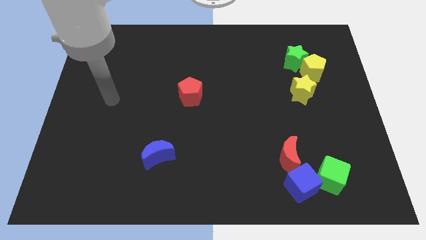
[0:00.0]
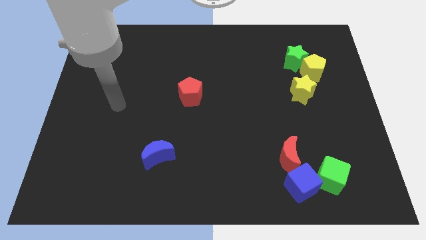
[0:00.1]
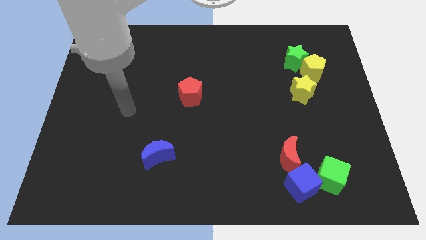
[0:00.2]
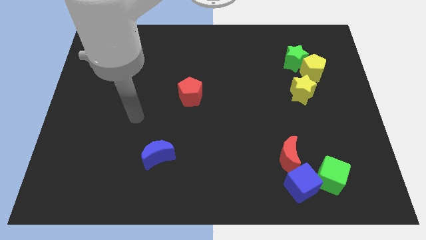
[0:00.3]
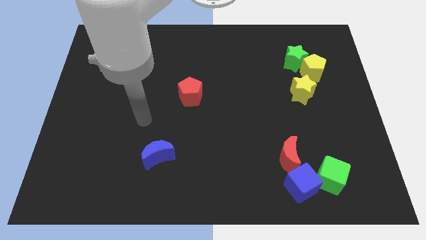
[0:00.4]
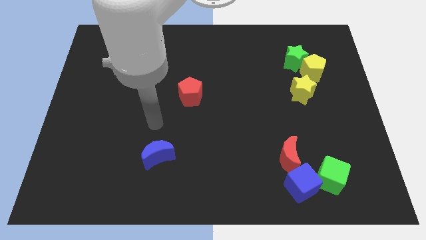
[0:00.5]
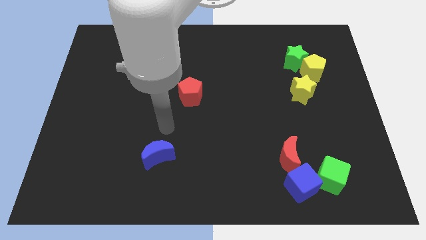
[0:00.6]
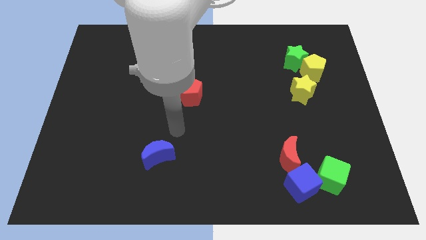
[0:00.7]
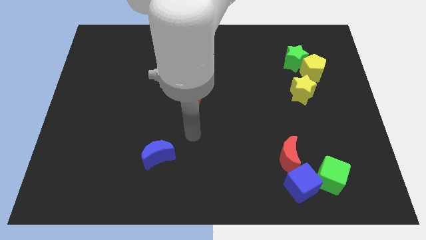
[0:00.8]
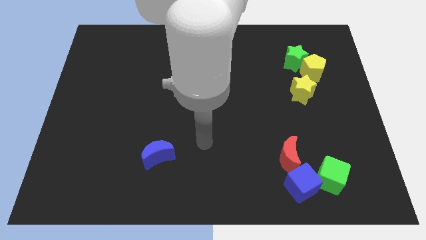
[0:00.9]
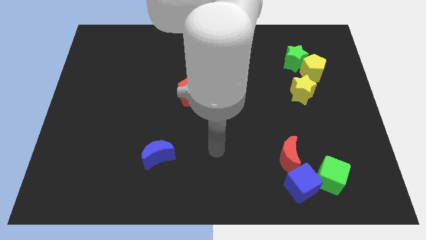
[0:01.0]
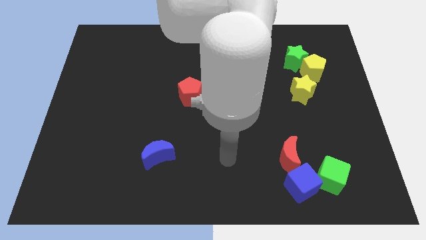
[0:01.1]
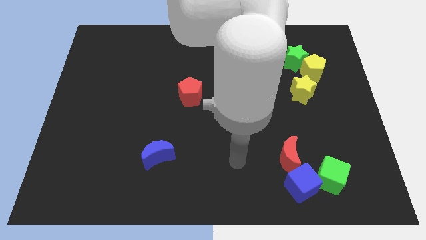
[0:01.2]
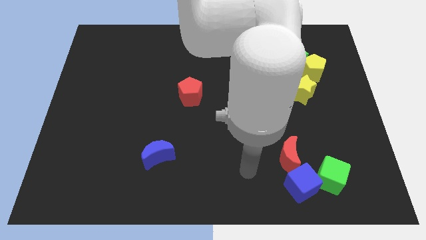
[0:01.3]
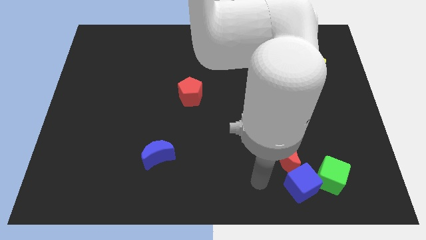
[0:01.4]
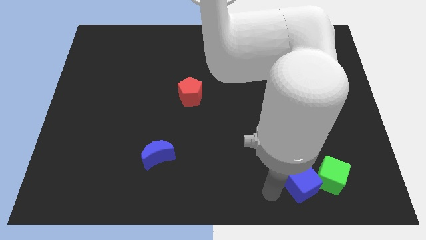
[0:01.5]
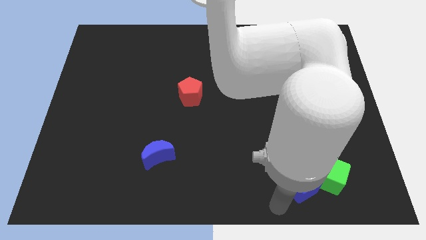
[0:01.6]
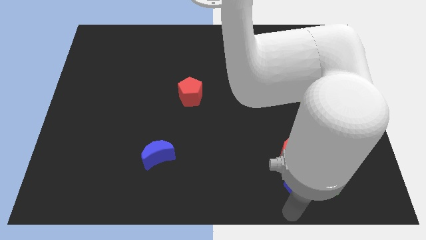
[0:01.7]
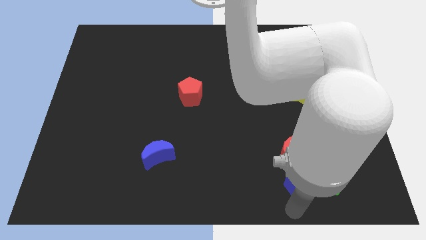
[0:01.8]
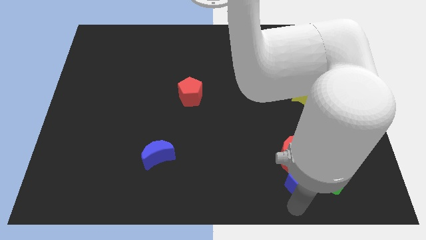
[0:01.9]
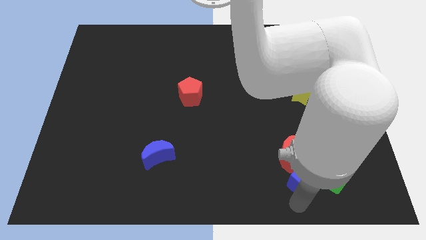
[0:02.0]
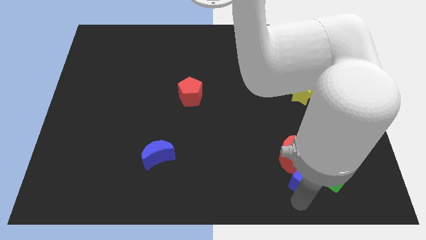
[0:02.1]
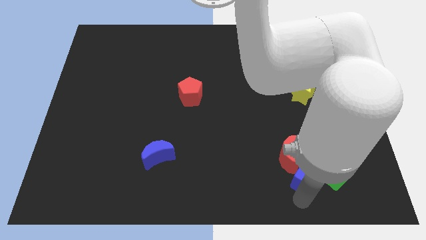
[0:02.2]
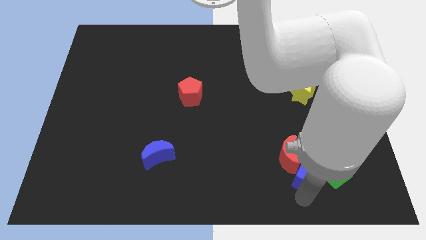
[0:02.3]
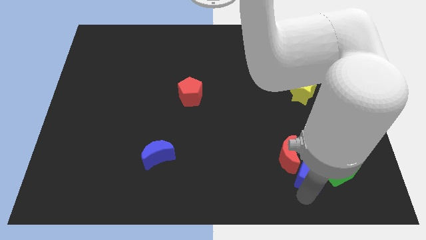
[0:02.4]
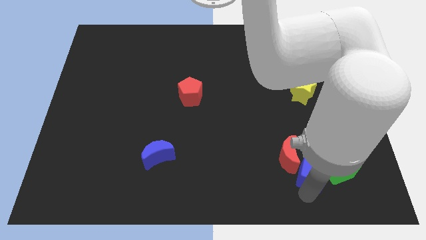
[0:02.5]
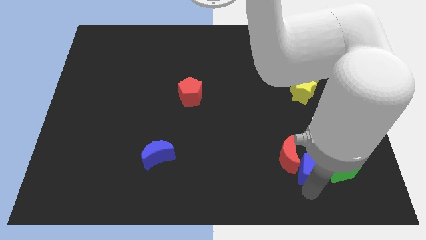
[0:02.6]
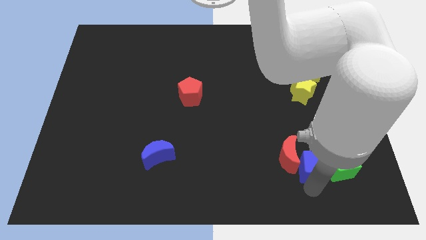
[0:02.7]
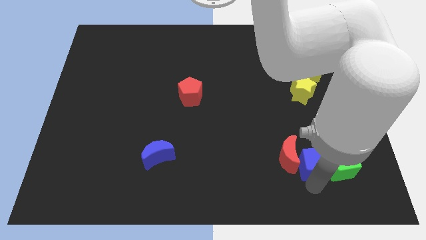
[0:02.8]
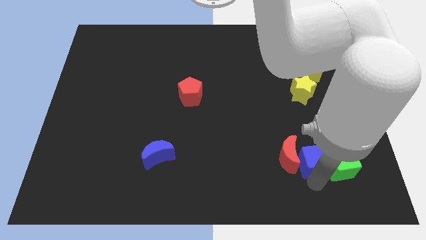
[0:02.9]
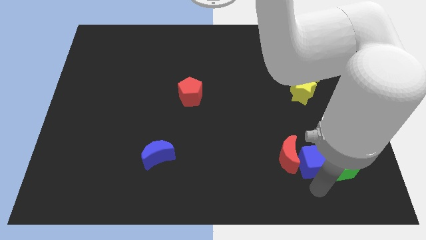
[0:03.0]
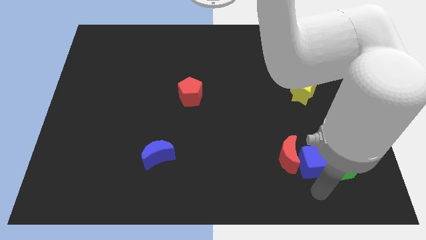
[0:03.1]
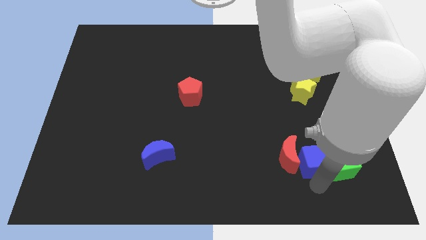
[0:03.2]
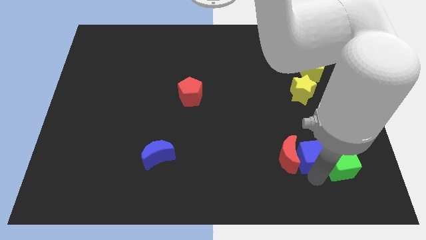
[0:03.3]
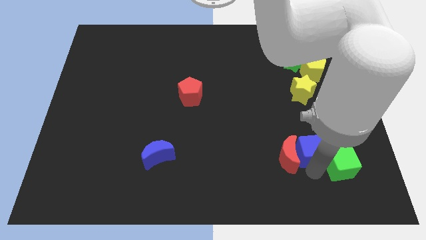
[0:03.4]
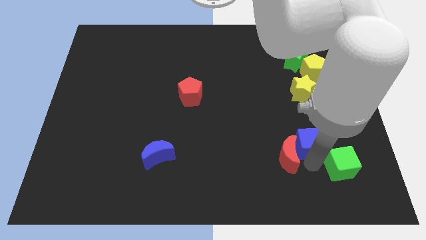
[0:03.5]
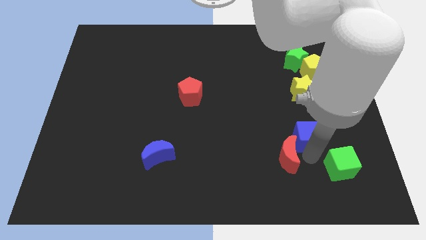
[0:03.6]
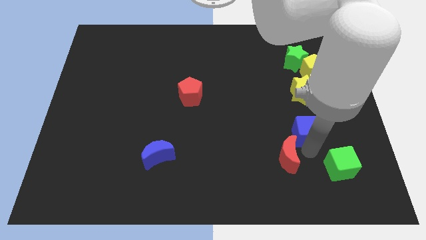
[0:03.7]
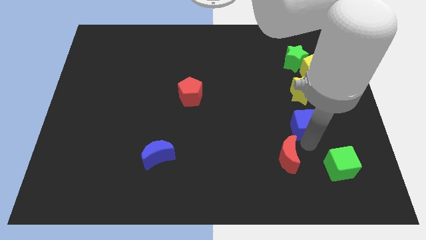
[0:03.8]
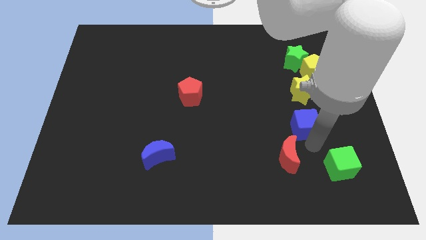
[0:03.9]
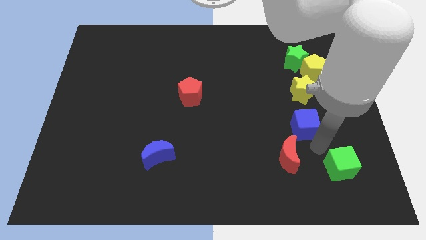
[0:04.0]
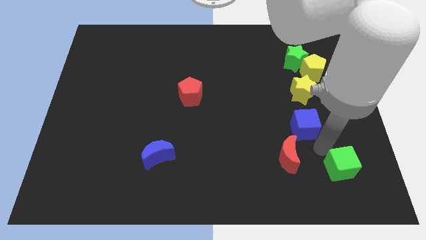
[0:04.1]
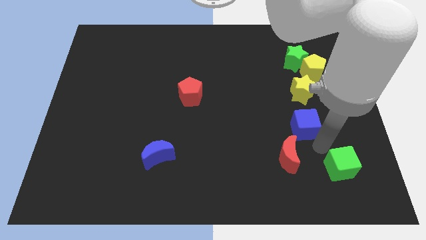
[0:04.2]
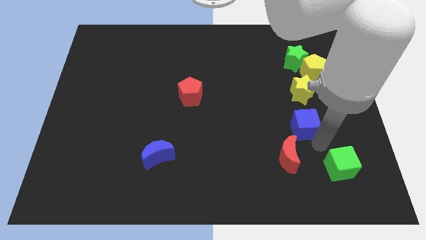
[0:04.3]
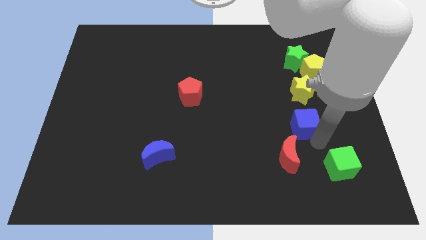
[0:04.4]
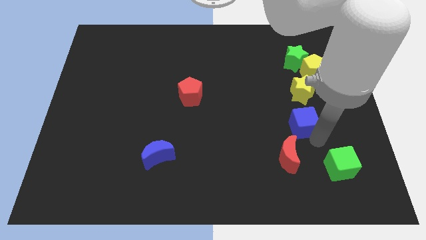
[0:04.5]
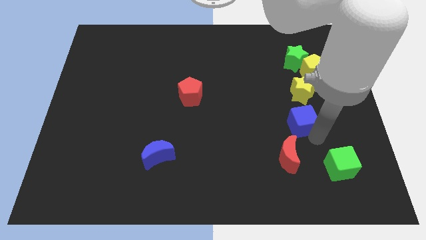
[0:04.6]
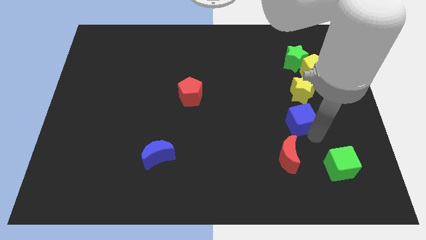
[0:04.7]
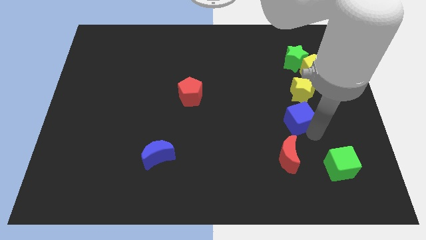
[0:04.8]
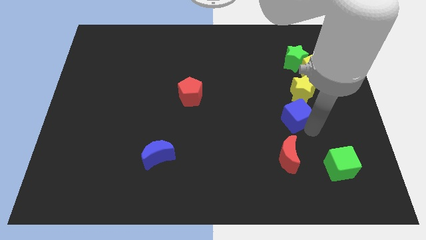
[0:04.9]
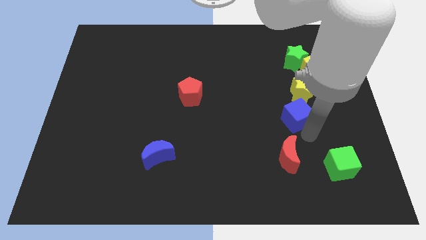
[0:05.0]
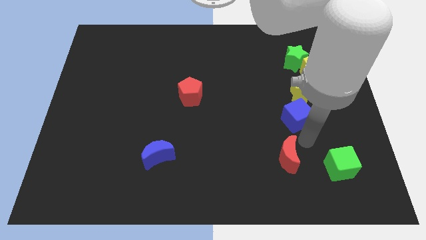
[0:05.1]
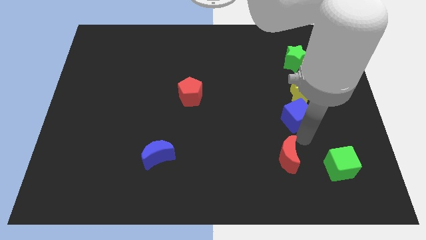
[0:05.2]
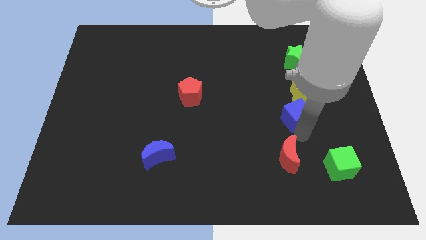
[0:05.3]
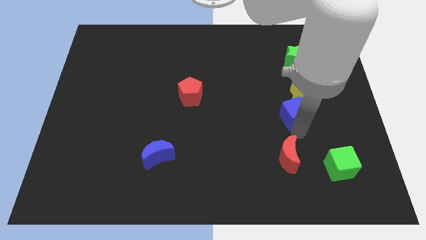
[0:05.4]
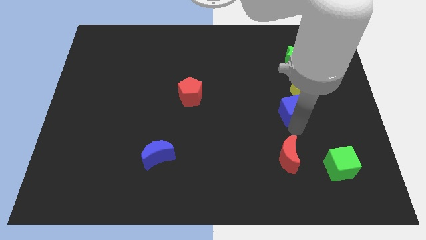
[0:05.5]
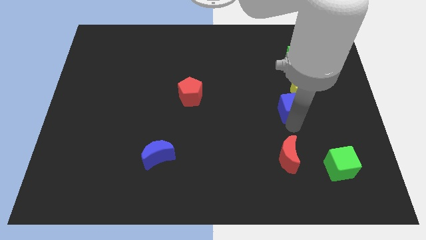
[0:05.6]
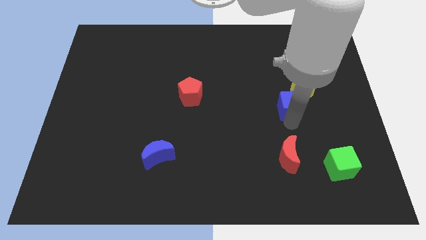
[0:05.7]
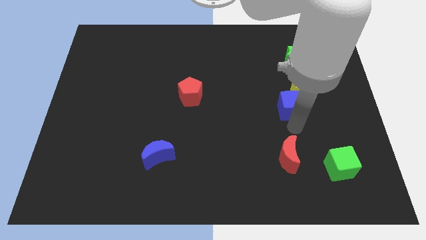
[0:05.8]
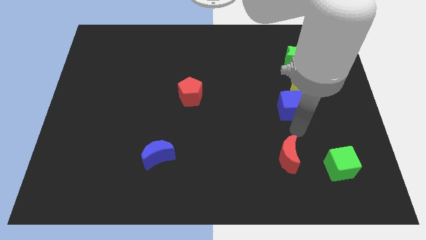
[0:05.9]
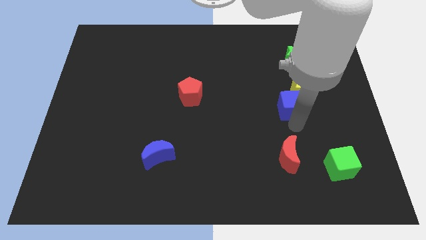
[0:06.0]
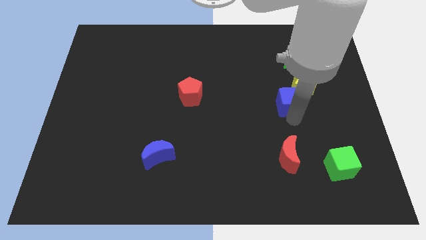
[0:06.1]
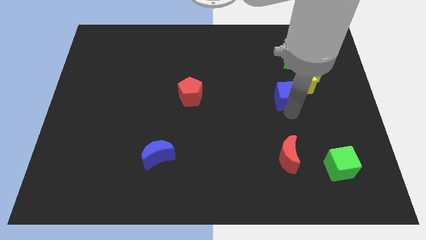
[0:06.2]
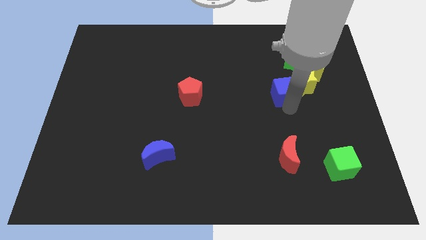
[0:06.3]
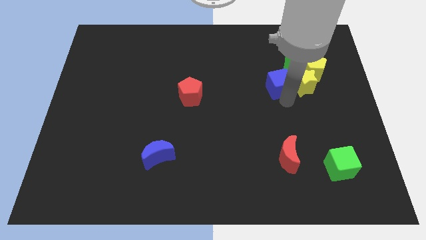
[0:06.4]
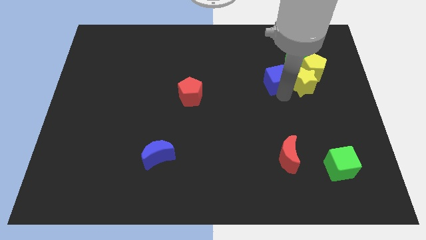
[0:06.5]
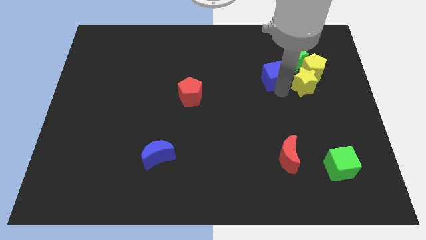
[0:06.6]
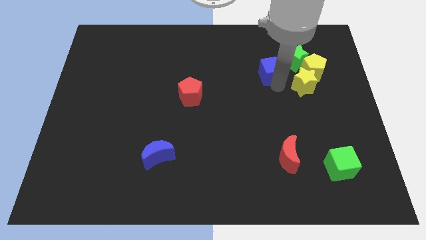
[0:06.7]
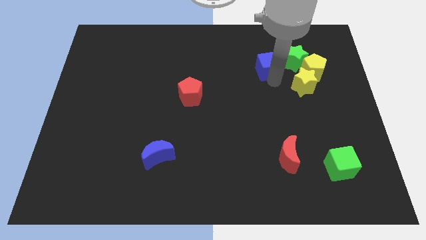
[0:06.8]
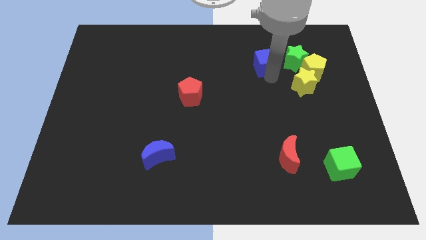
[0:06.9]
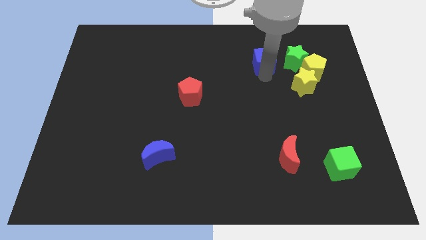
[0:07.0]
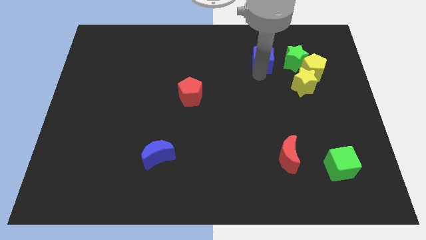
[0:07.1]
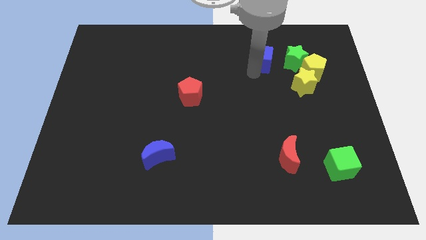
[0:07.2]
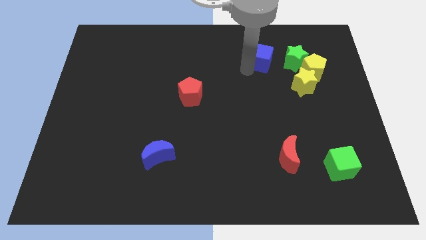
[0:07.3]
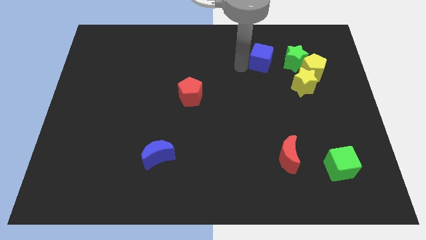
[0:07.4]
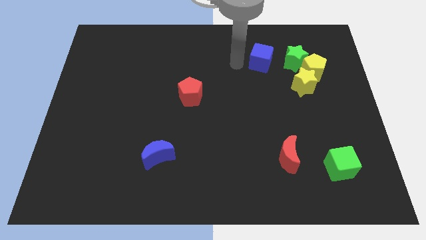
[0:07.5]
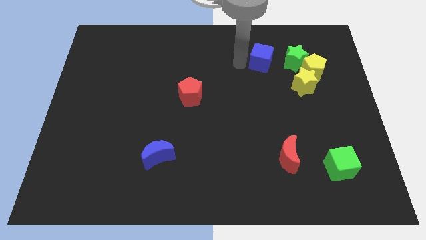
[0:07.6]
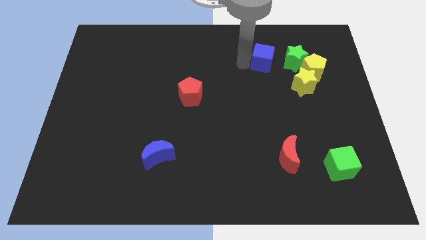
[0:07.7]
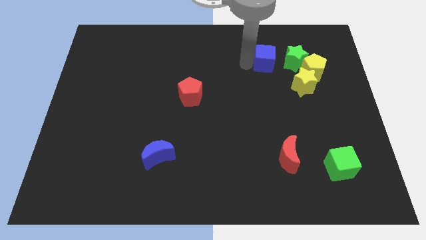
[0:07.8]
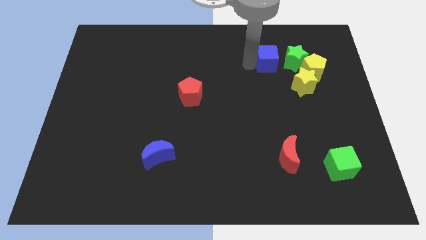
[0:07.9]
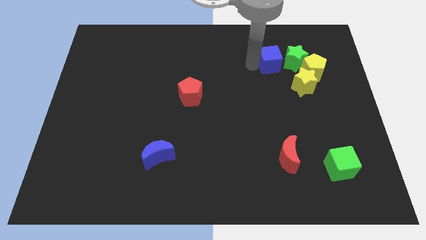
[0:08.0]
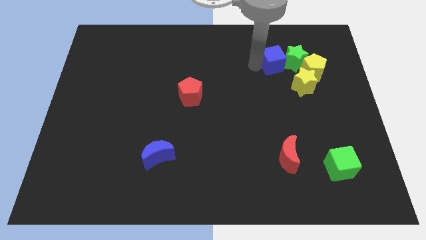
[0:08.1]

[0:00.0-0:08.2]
push the blue cube to the top left of the yellow pentagon
